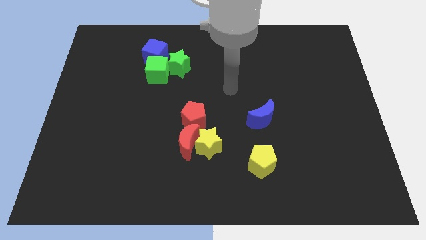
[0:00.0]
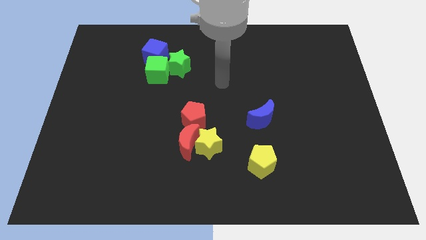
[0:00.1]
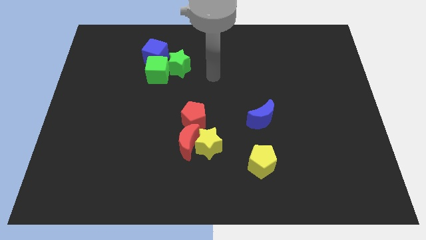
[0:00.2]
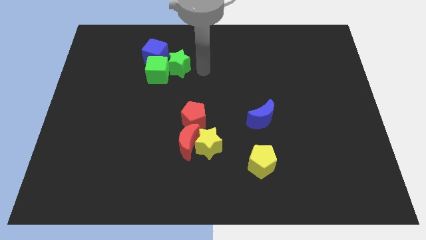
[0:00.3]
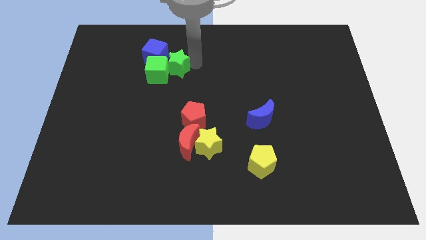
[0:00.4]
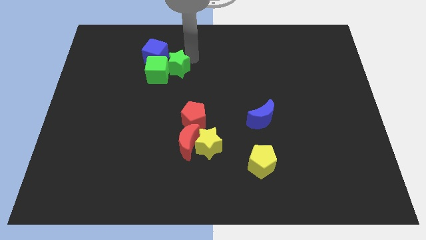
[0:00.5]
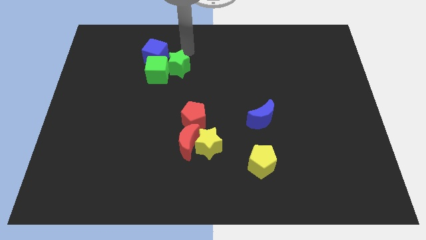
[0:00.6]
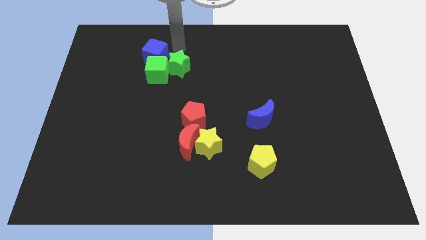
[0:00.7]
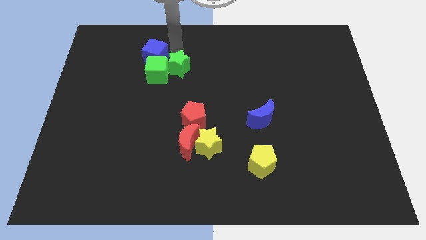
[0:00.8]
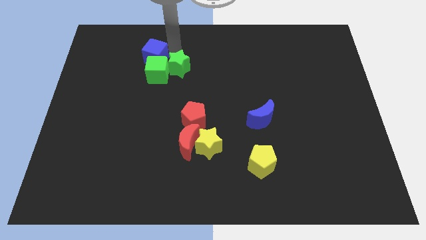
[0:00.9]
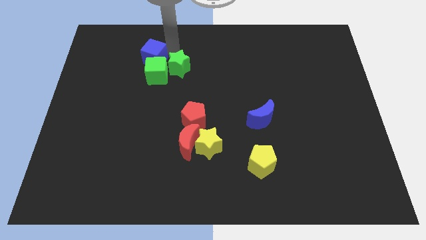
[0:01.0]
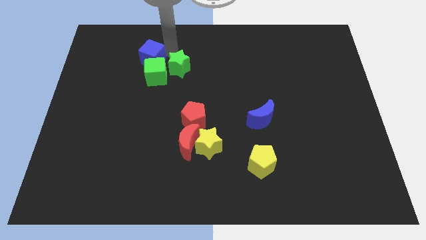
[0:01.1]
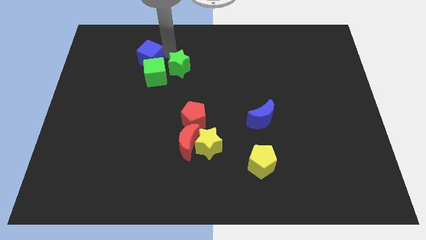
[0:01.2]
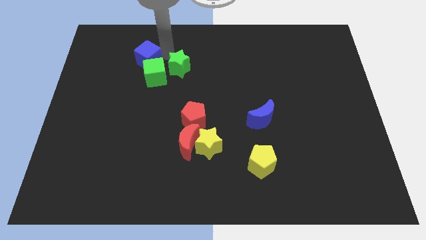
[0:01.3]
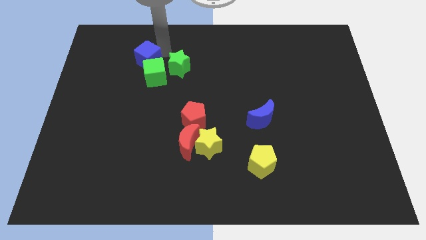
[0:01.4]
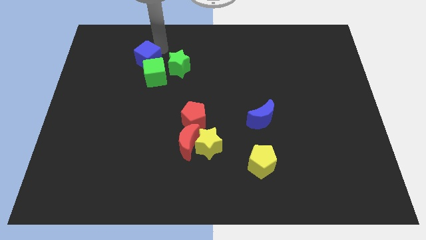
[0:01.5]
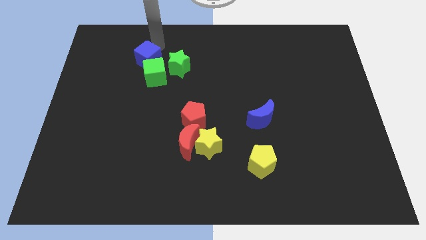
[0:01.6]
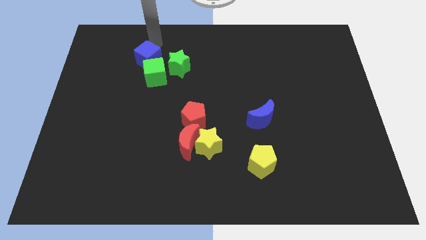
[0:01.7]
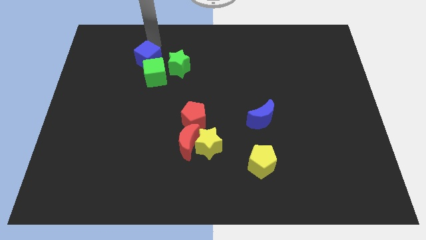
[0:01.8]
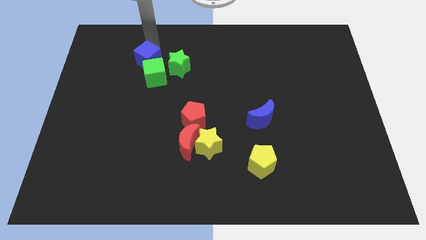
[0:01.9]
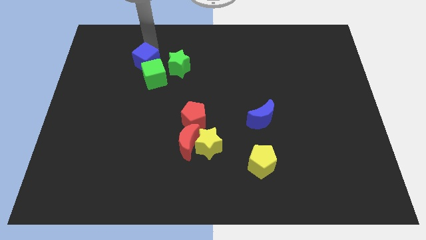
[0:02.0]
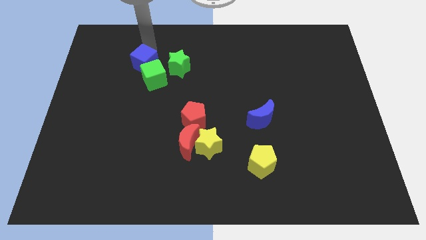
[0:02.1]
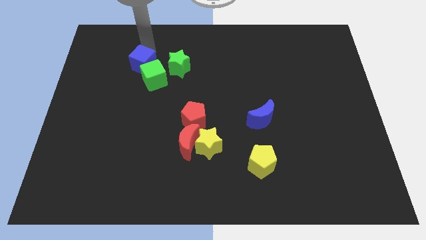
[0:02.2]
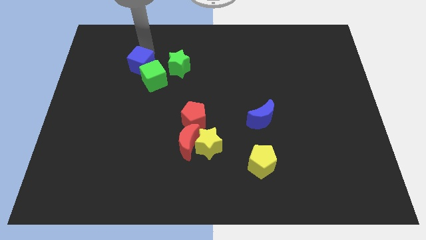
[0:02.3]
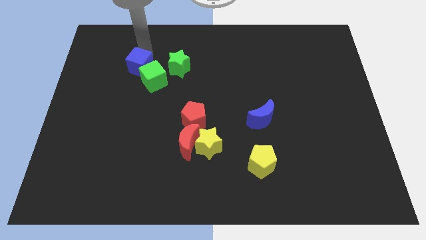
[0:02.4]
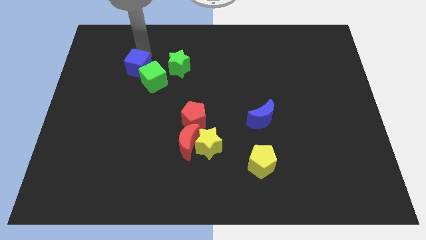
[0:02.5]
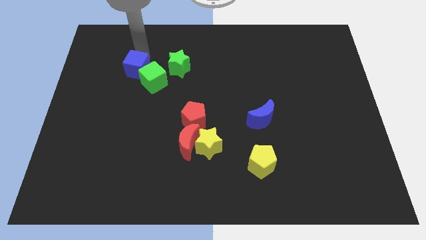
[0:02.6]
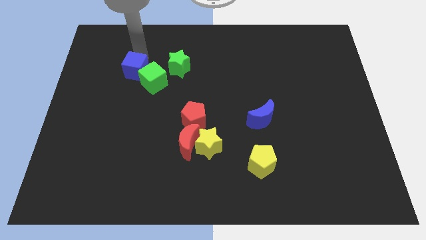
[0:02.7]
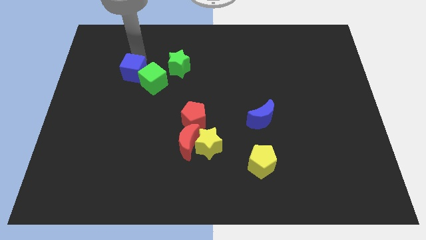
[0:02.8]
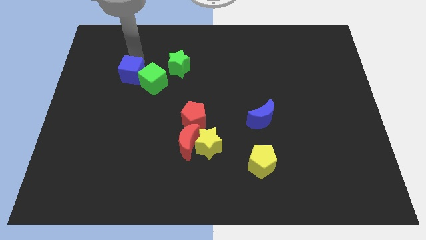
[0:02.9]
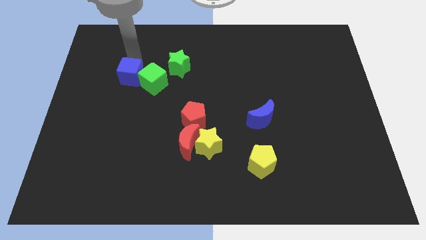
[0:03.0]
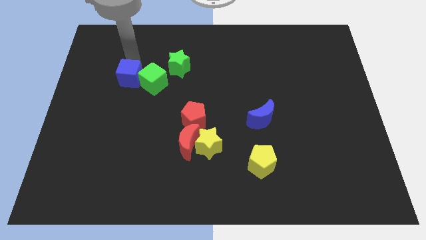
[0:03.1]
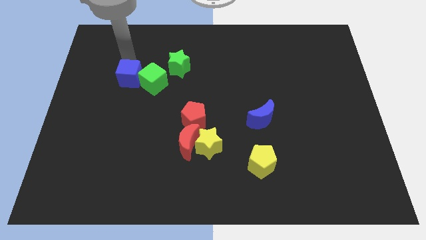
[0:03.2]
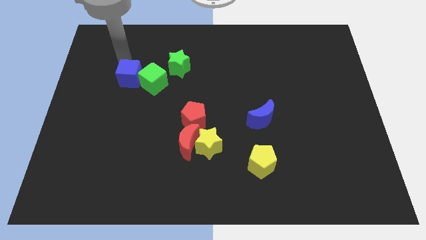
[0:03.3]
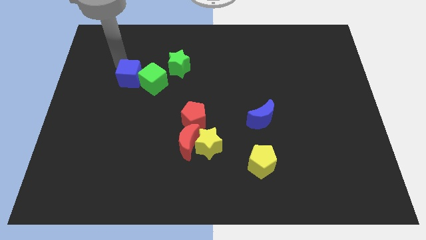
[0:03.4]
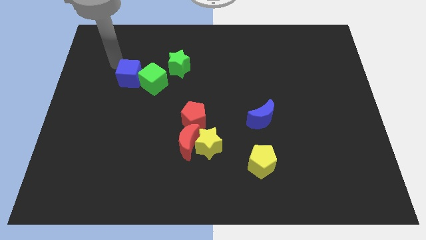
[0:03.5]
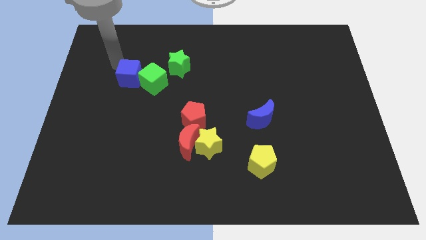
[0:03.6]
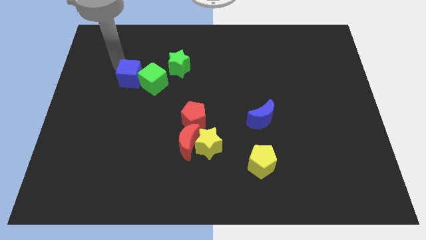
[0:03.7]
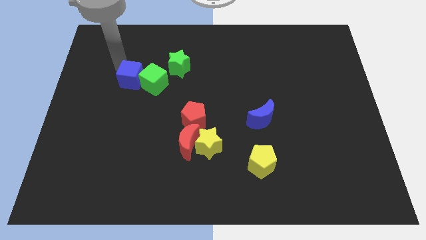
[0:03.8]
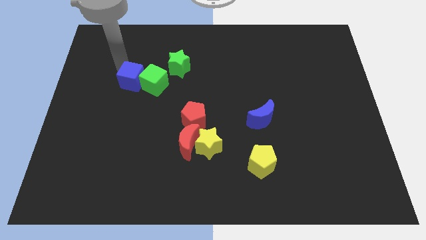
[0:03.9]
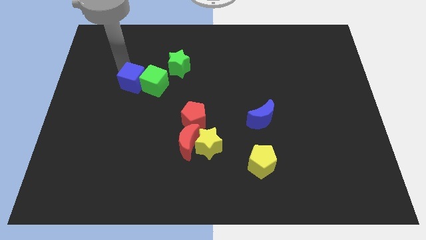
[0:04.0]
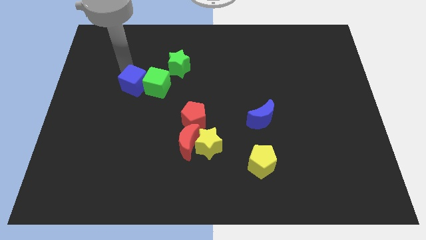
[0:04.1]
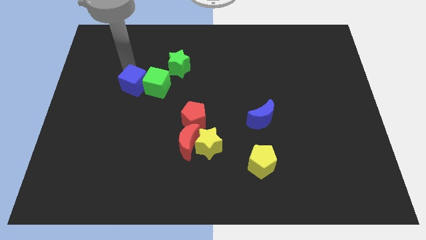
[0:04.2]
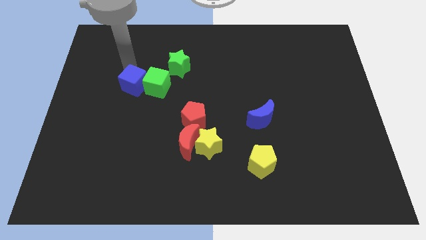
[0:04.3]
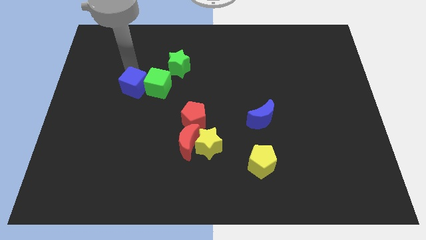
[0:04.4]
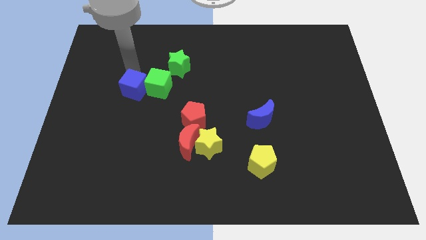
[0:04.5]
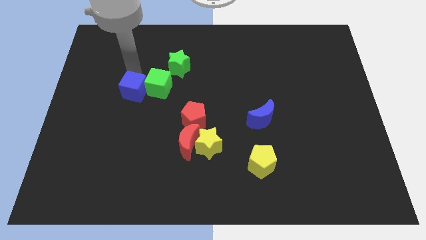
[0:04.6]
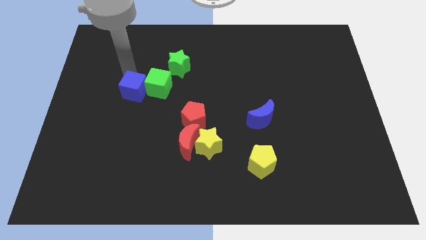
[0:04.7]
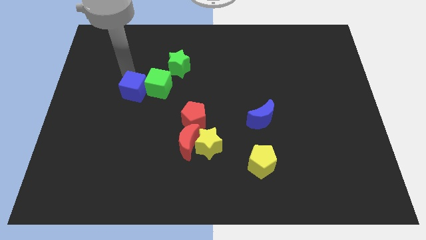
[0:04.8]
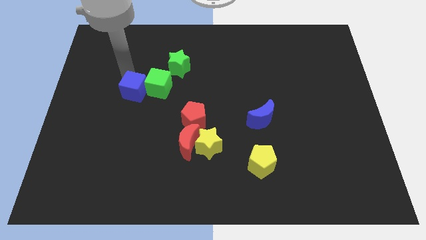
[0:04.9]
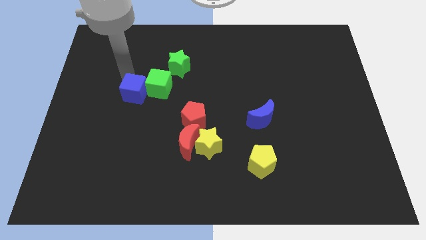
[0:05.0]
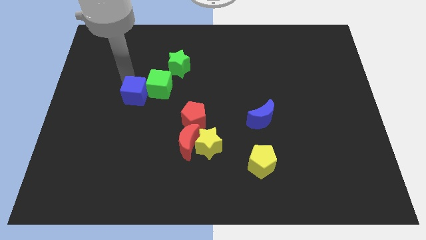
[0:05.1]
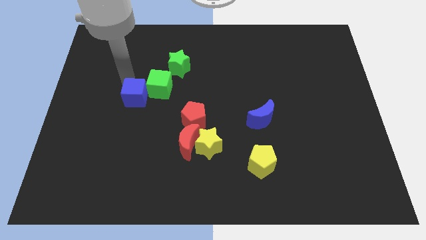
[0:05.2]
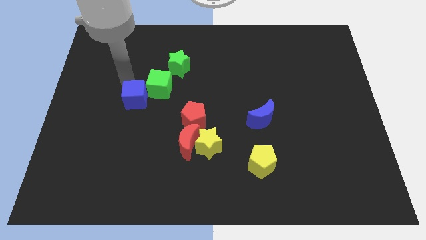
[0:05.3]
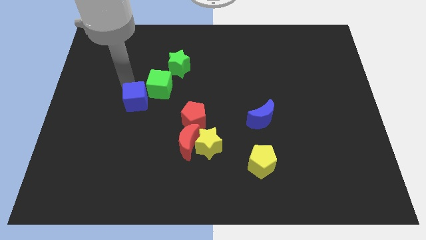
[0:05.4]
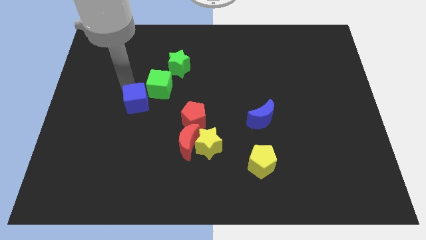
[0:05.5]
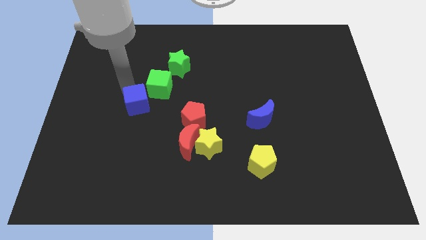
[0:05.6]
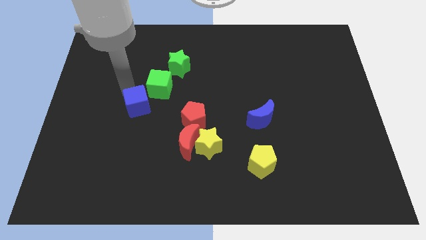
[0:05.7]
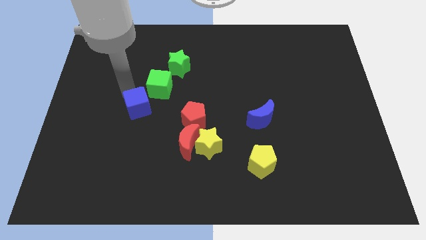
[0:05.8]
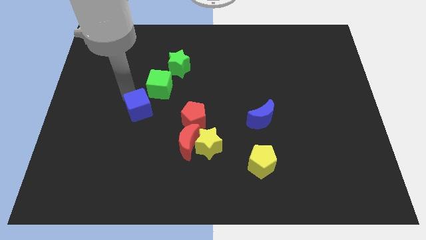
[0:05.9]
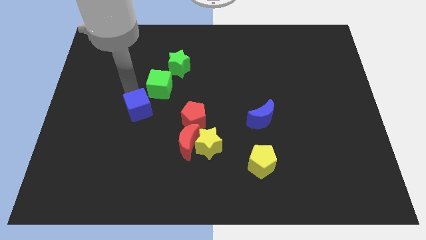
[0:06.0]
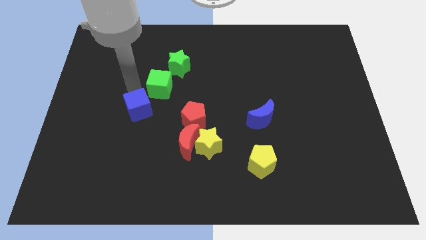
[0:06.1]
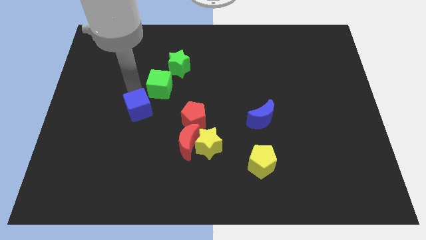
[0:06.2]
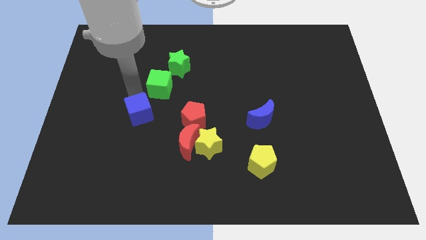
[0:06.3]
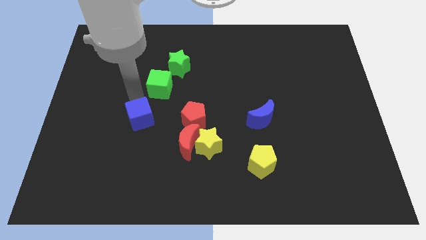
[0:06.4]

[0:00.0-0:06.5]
slide the blue cube downwards

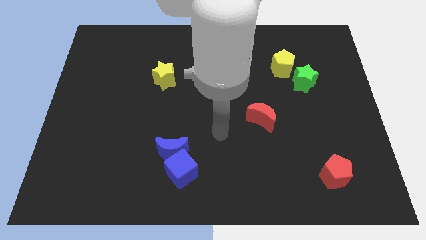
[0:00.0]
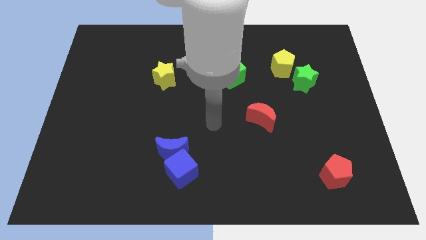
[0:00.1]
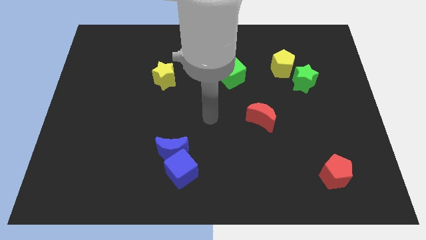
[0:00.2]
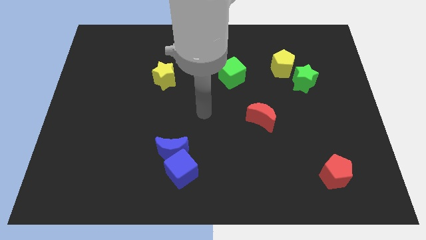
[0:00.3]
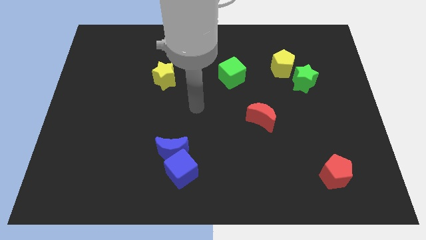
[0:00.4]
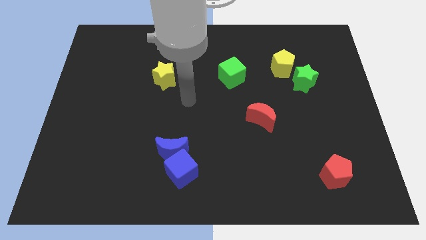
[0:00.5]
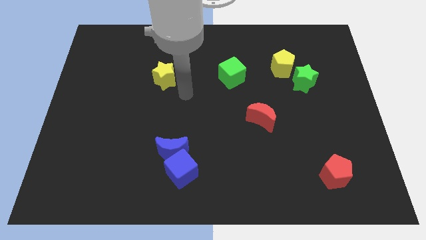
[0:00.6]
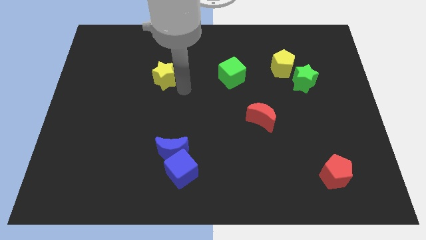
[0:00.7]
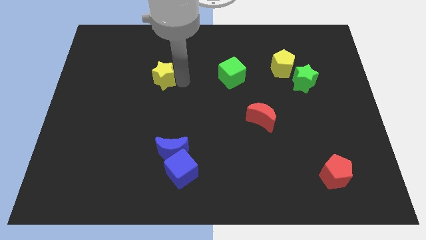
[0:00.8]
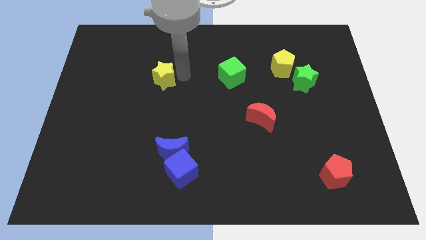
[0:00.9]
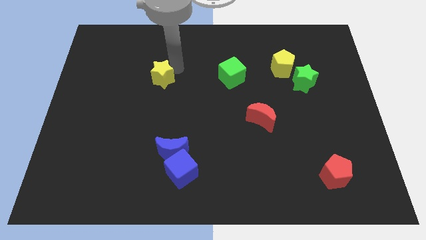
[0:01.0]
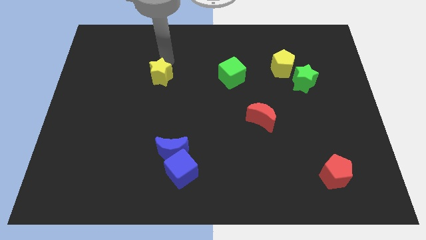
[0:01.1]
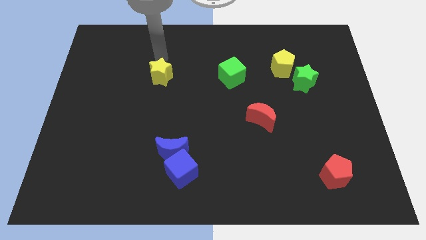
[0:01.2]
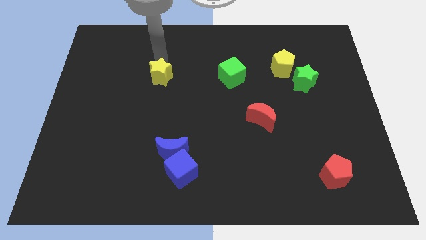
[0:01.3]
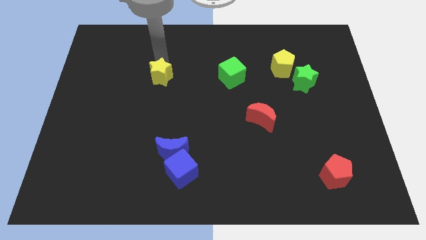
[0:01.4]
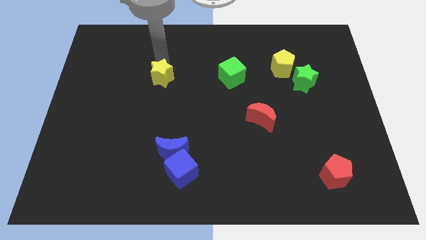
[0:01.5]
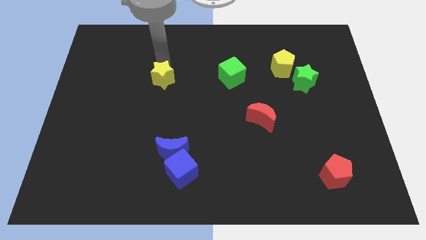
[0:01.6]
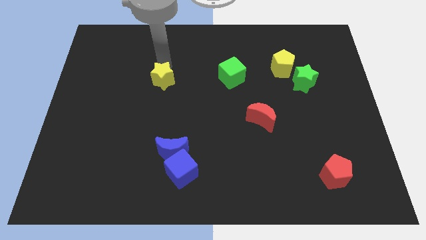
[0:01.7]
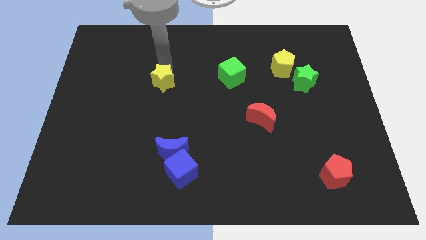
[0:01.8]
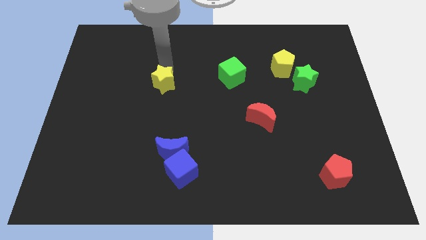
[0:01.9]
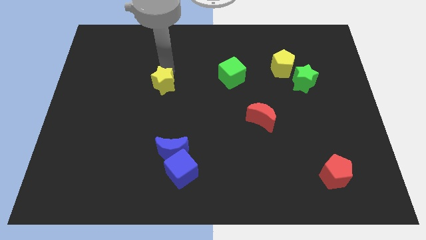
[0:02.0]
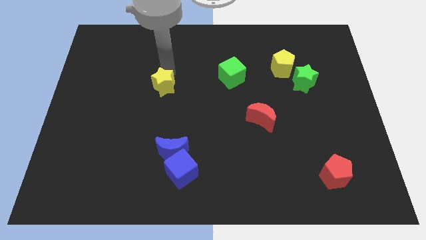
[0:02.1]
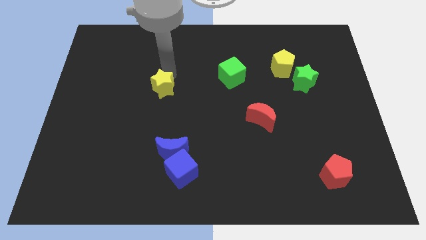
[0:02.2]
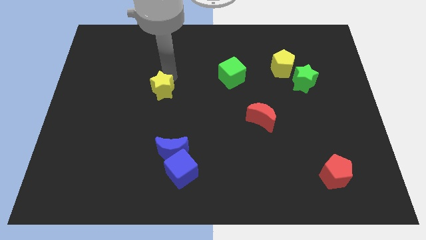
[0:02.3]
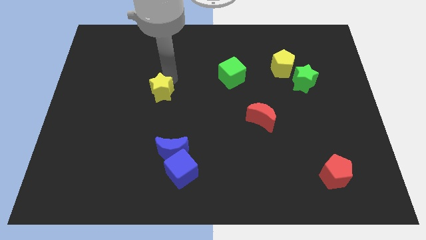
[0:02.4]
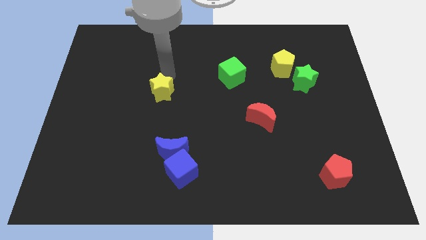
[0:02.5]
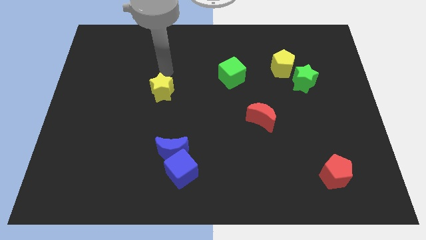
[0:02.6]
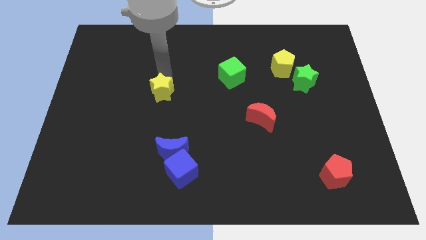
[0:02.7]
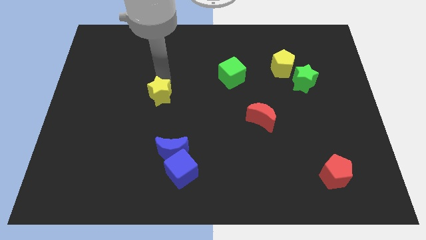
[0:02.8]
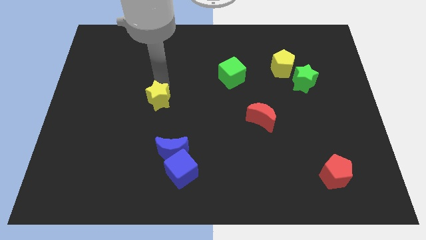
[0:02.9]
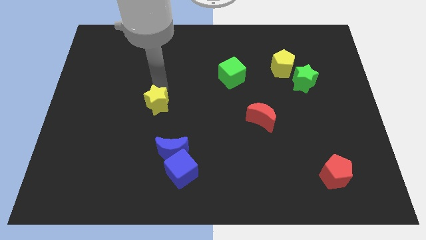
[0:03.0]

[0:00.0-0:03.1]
slightly push the yellow star downwards
